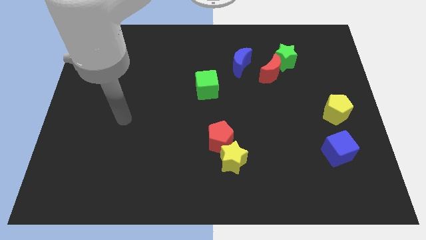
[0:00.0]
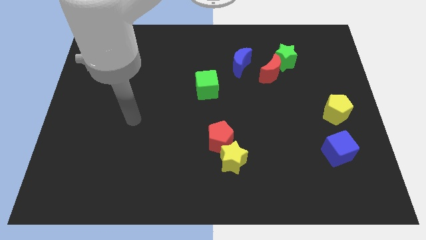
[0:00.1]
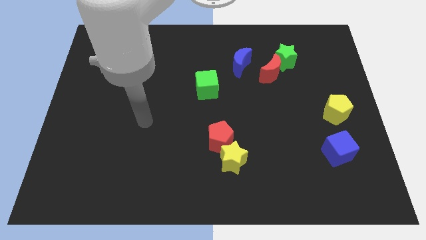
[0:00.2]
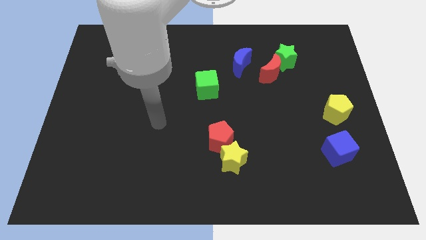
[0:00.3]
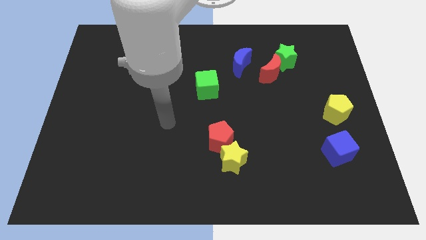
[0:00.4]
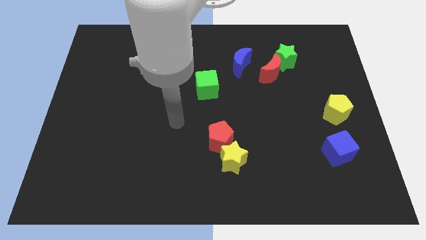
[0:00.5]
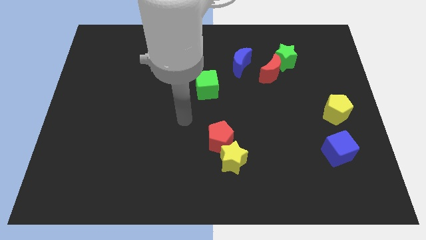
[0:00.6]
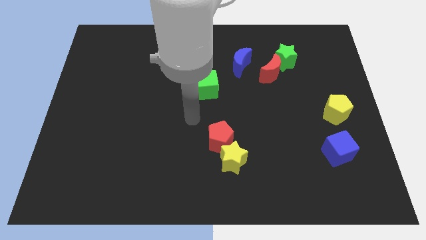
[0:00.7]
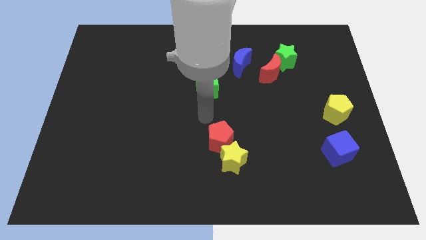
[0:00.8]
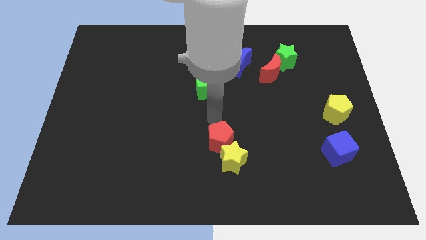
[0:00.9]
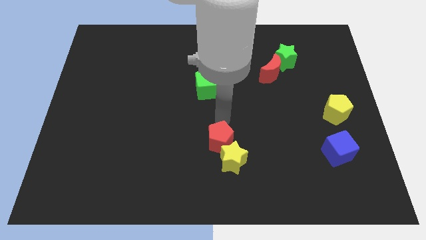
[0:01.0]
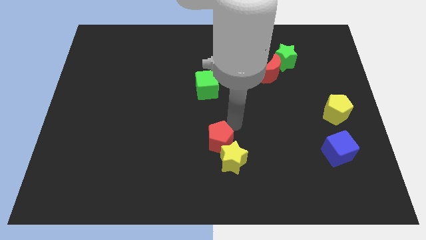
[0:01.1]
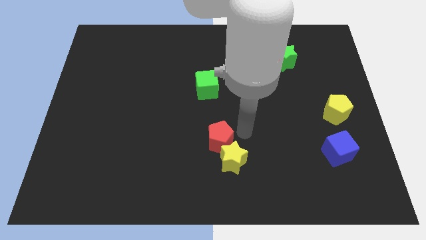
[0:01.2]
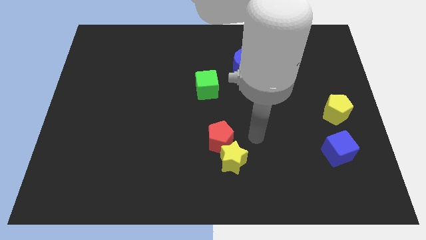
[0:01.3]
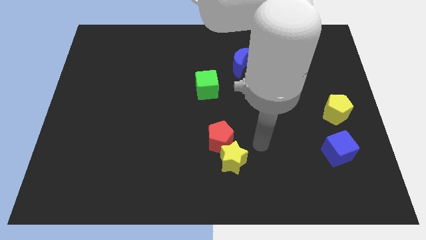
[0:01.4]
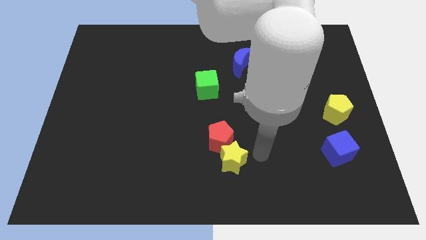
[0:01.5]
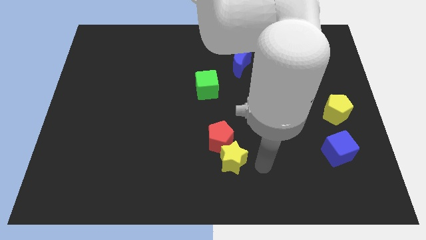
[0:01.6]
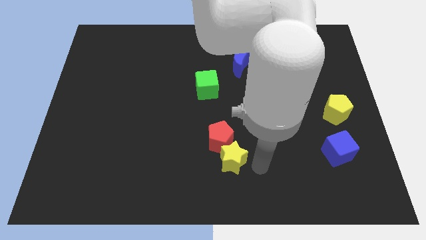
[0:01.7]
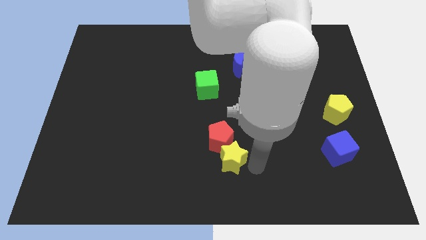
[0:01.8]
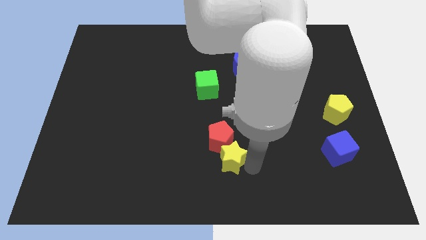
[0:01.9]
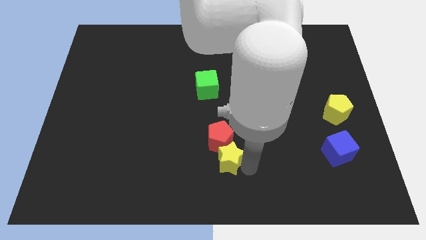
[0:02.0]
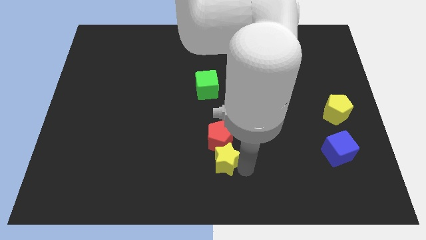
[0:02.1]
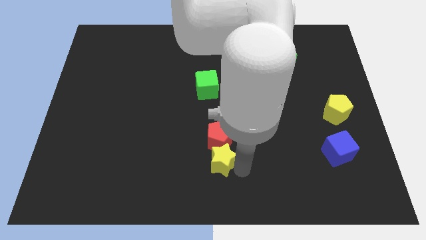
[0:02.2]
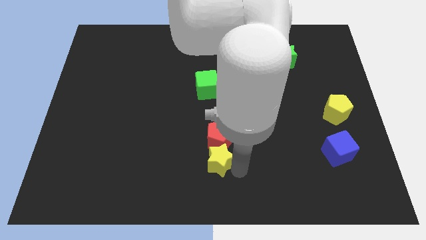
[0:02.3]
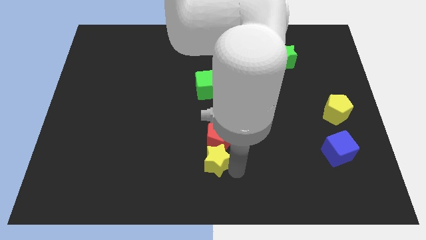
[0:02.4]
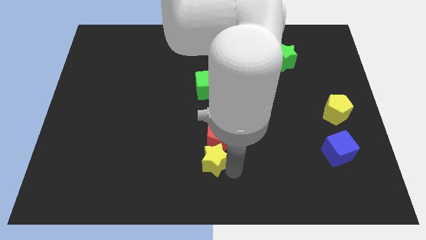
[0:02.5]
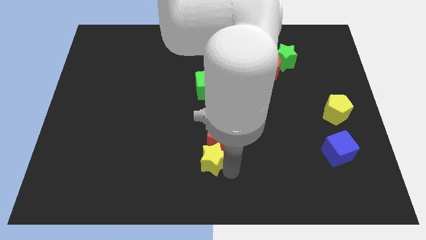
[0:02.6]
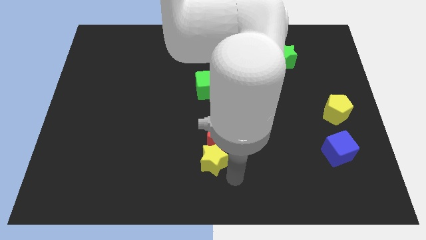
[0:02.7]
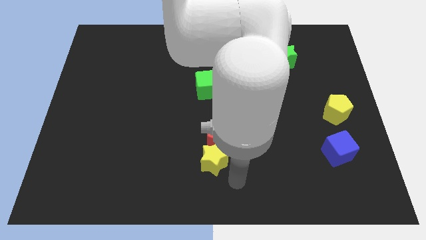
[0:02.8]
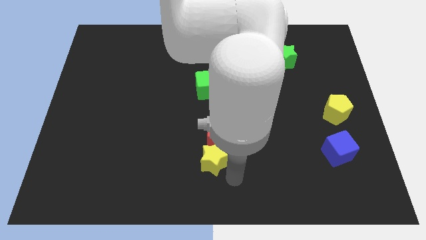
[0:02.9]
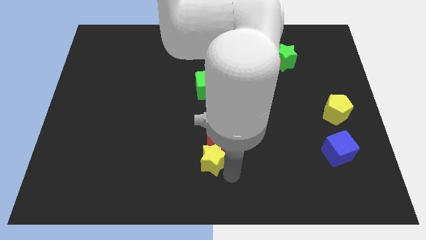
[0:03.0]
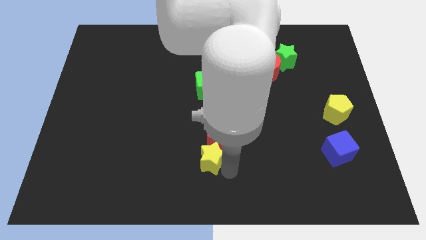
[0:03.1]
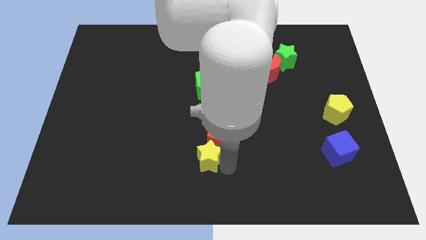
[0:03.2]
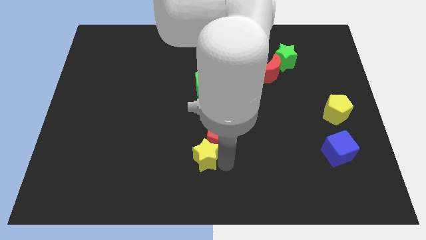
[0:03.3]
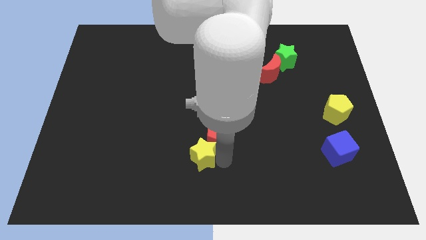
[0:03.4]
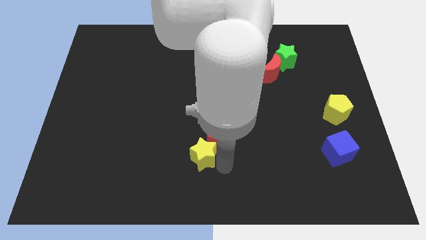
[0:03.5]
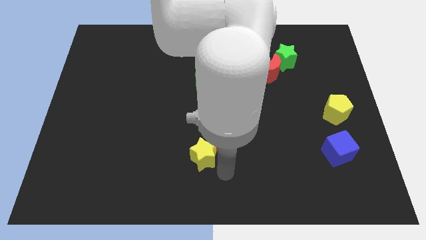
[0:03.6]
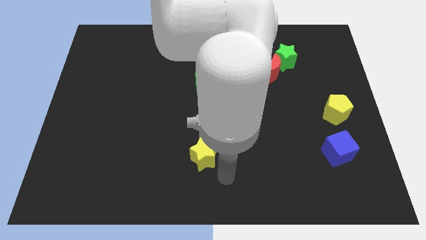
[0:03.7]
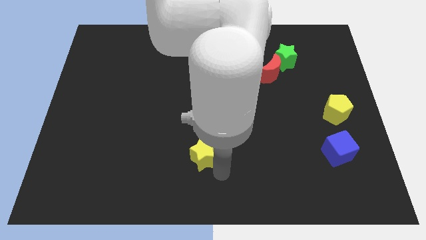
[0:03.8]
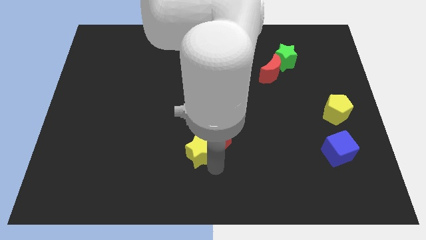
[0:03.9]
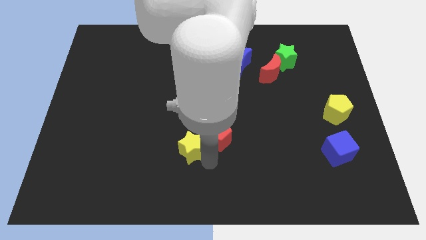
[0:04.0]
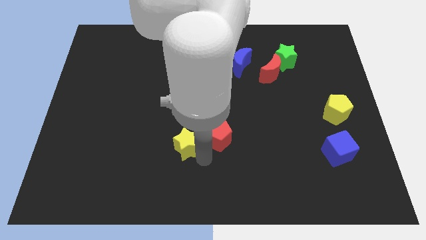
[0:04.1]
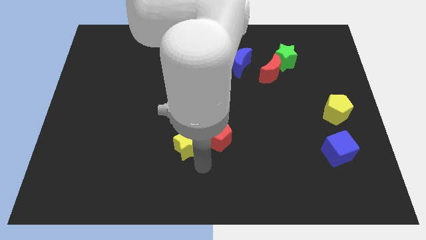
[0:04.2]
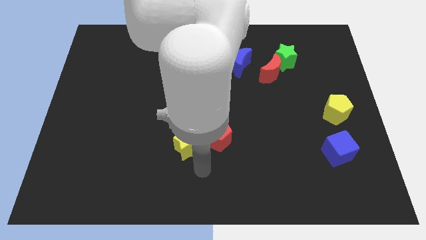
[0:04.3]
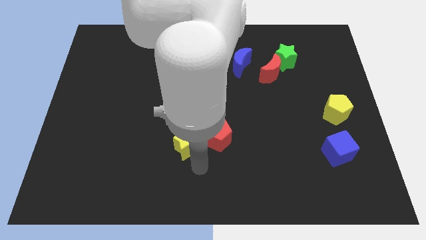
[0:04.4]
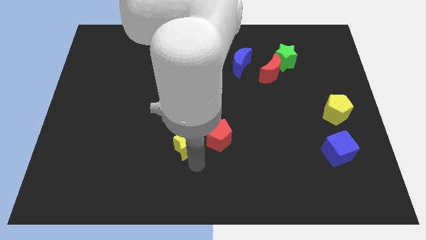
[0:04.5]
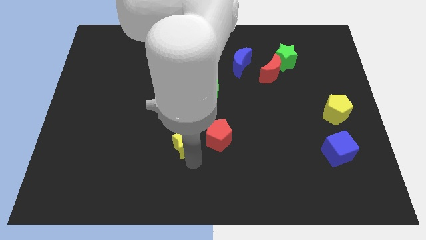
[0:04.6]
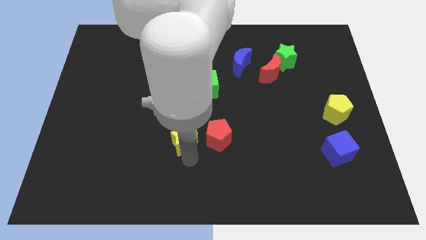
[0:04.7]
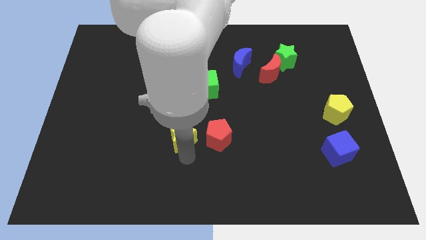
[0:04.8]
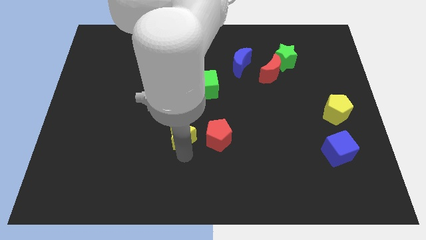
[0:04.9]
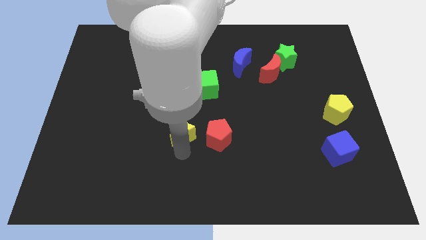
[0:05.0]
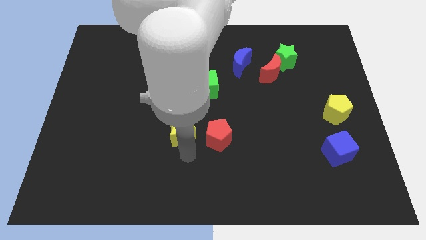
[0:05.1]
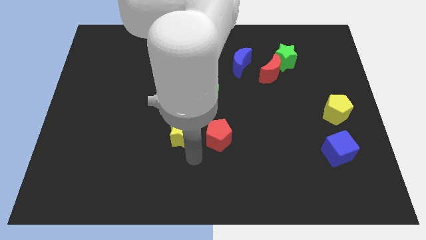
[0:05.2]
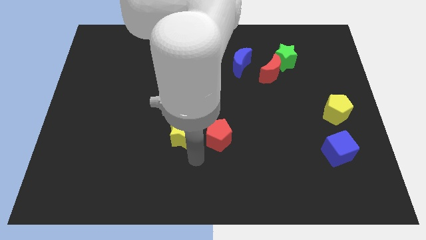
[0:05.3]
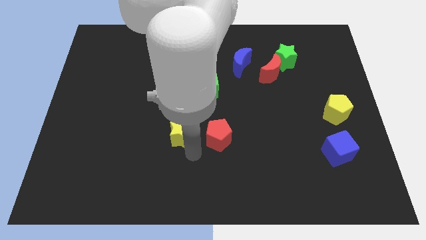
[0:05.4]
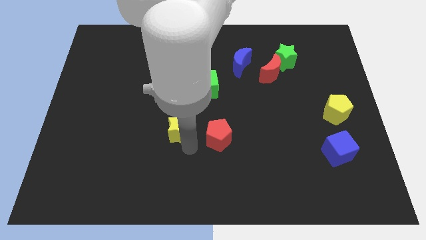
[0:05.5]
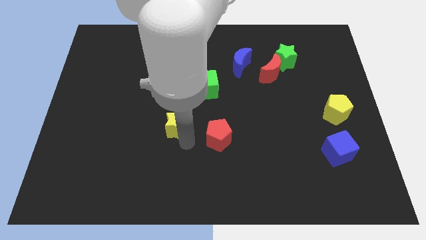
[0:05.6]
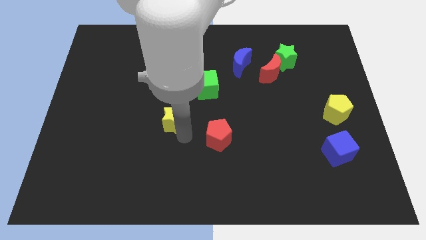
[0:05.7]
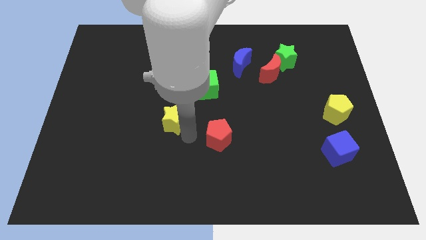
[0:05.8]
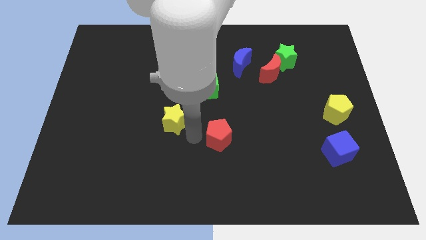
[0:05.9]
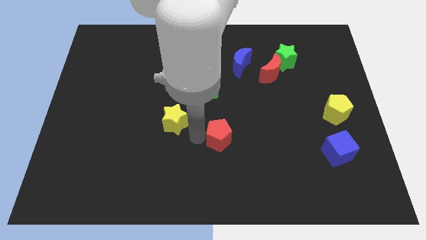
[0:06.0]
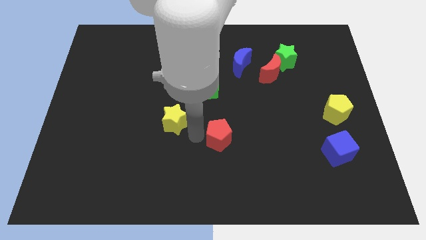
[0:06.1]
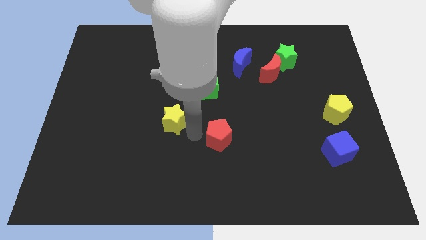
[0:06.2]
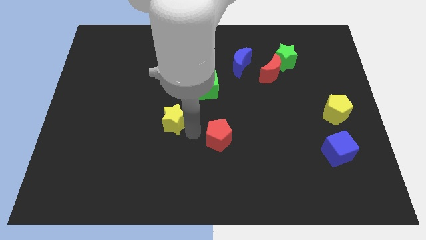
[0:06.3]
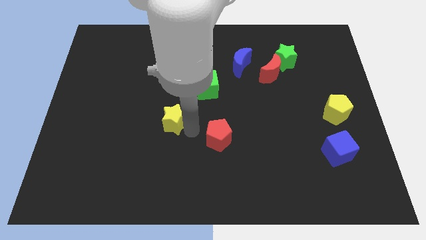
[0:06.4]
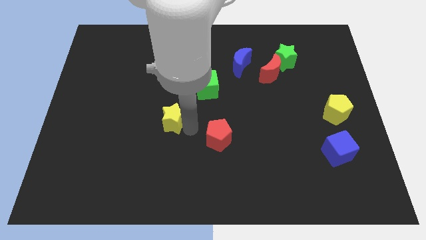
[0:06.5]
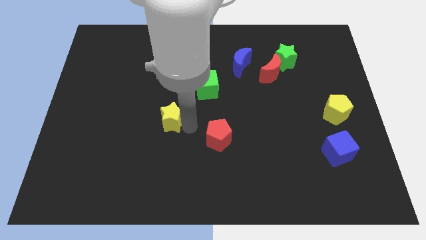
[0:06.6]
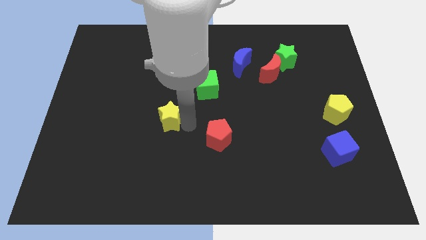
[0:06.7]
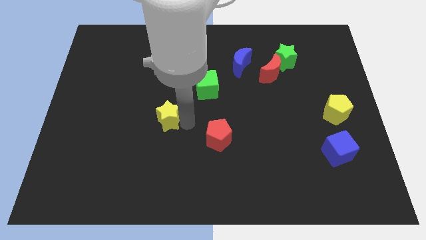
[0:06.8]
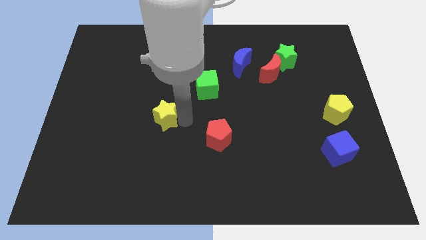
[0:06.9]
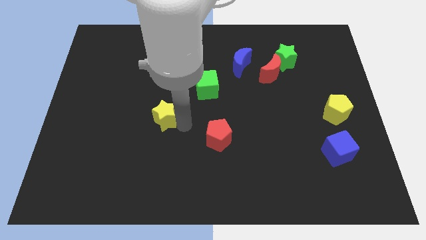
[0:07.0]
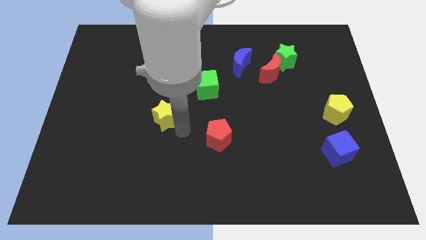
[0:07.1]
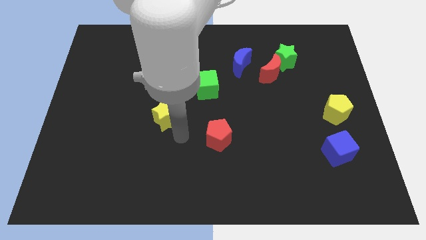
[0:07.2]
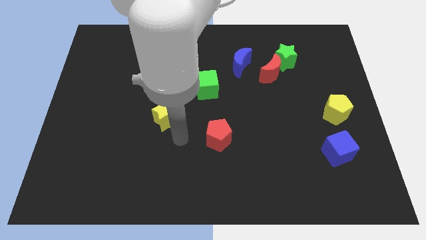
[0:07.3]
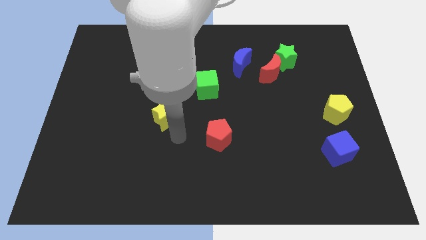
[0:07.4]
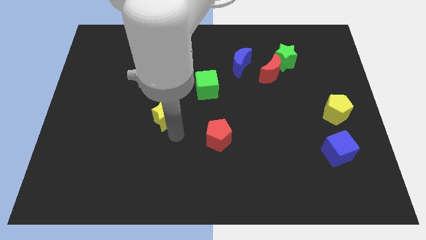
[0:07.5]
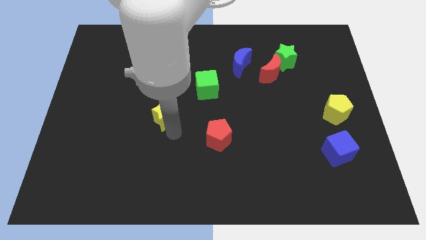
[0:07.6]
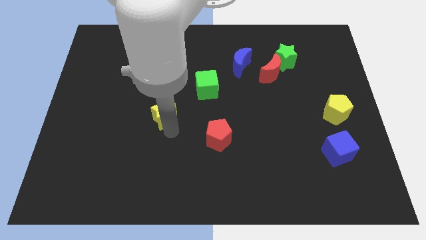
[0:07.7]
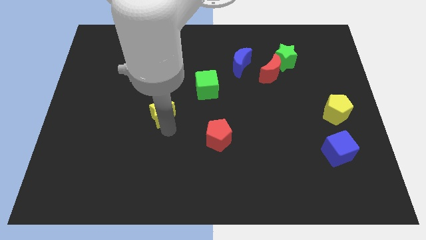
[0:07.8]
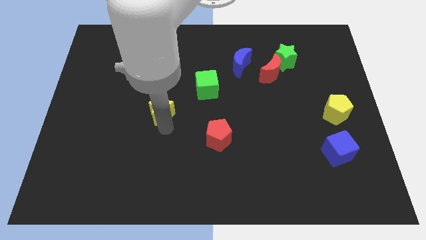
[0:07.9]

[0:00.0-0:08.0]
slide the yellow star upwards and left diagonally
